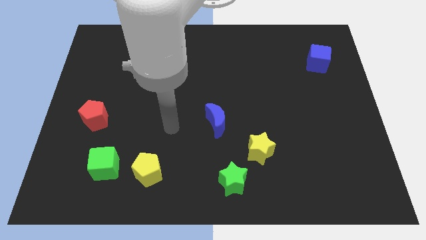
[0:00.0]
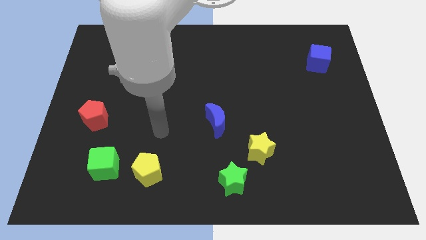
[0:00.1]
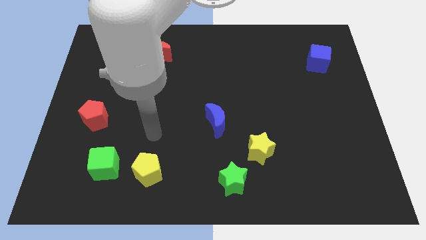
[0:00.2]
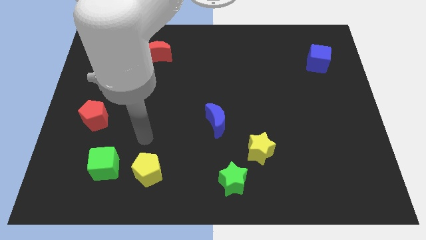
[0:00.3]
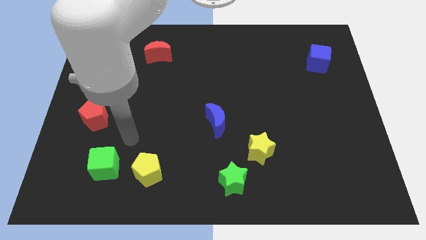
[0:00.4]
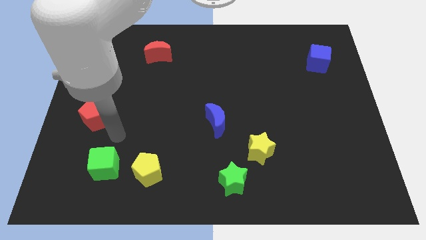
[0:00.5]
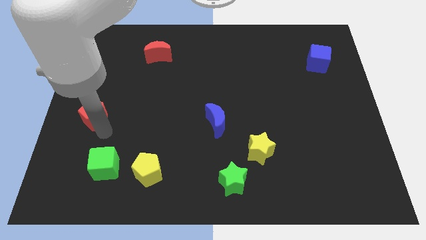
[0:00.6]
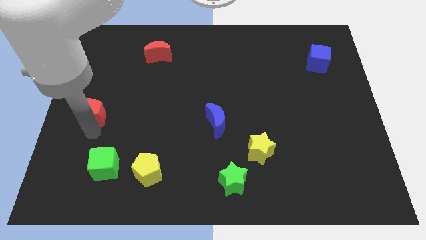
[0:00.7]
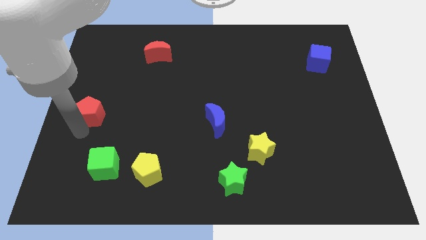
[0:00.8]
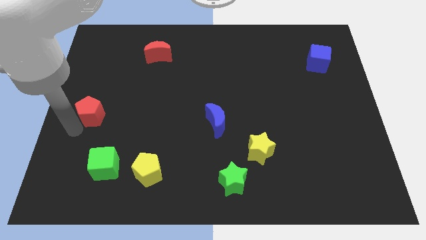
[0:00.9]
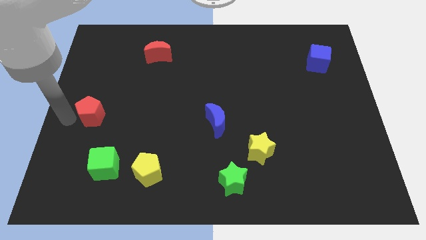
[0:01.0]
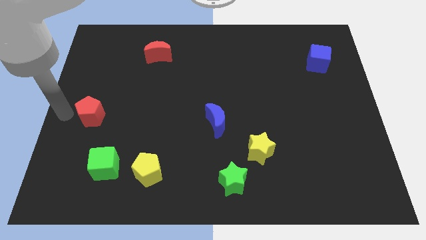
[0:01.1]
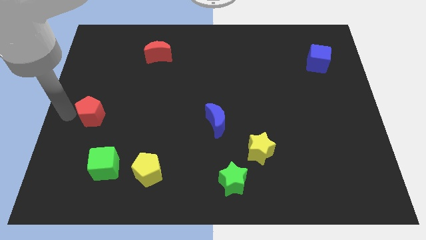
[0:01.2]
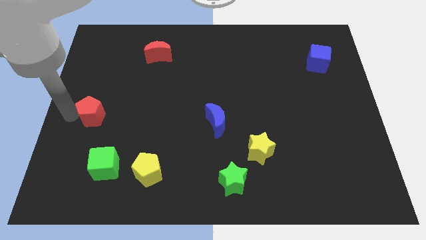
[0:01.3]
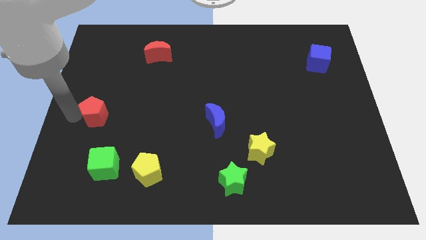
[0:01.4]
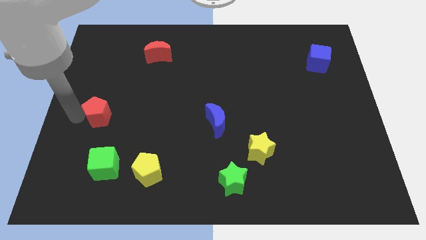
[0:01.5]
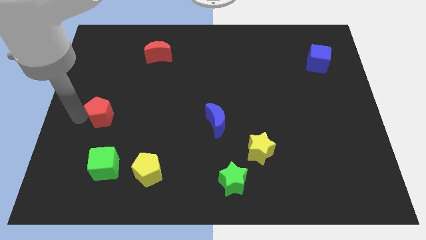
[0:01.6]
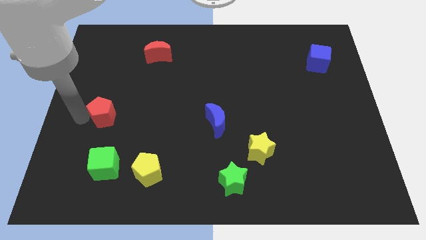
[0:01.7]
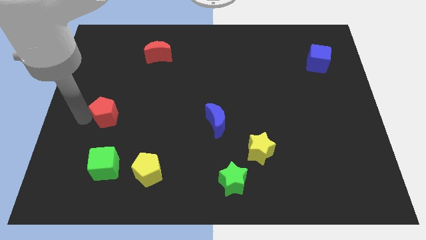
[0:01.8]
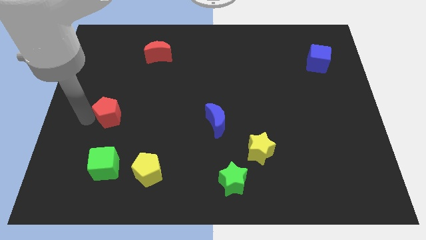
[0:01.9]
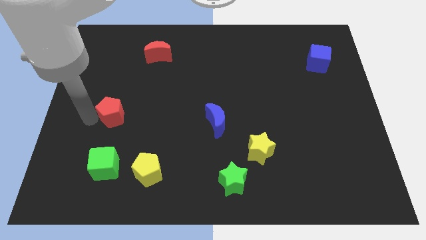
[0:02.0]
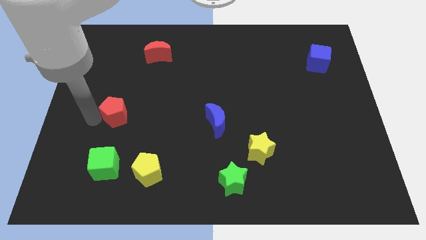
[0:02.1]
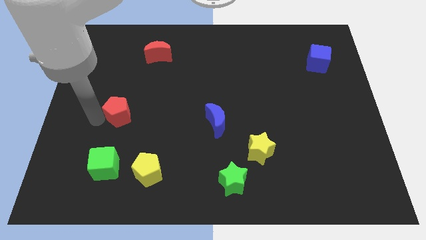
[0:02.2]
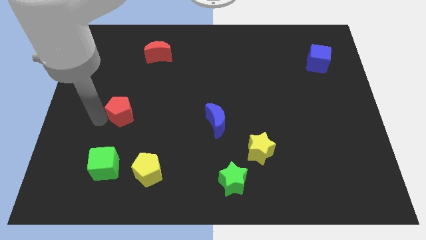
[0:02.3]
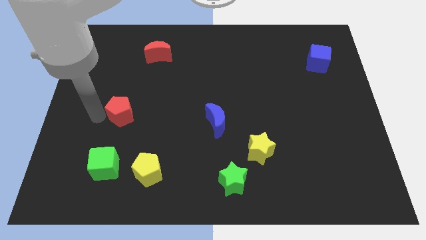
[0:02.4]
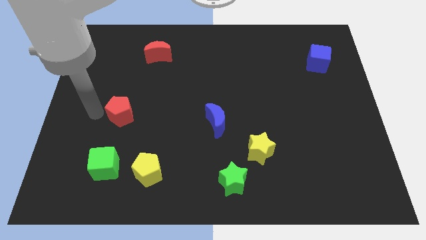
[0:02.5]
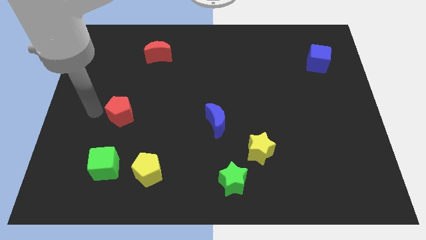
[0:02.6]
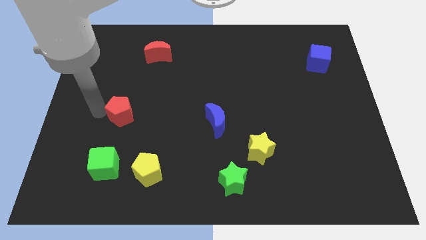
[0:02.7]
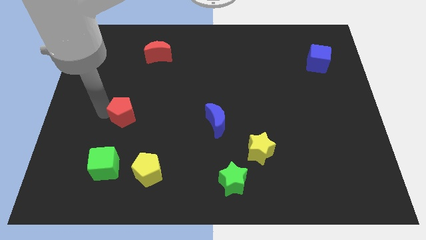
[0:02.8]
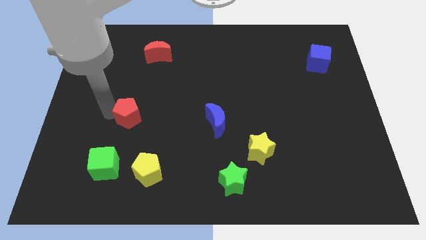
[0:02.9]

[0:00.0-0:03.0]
slide the red pentagon a little bit to the right

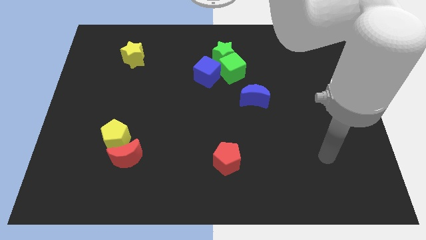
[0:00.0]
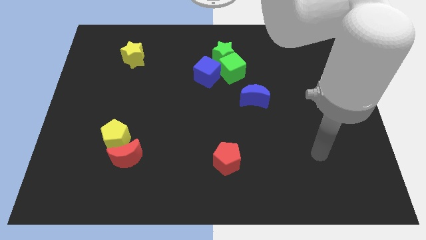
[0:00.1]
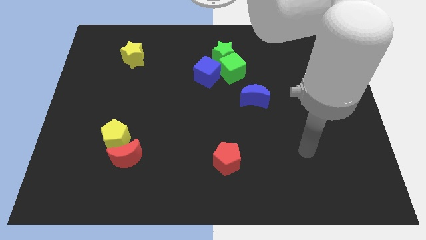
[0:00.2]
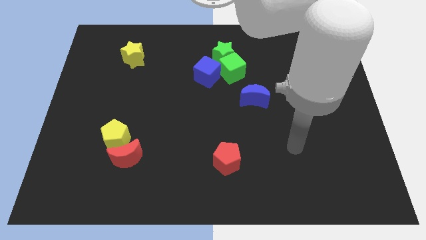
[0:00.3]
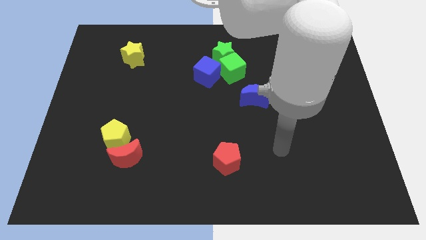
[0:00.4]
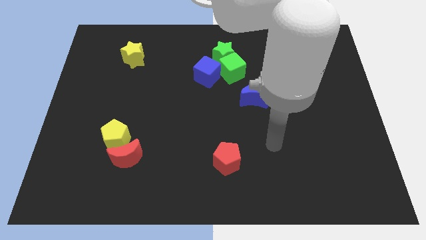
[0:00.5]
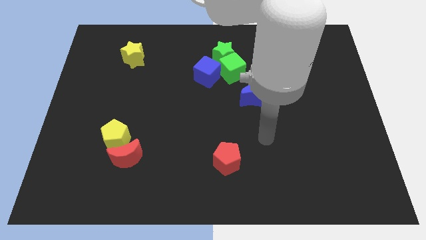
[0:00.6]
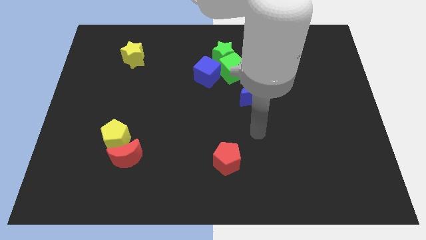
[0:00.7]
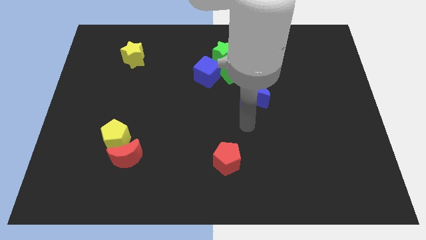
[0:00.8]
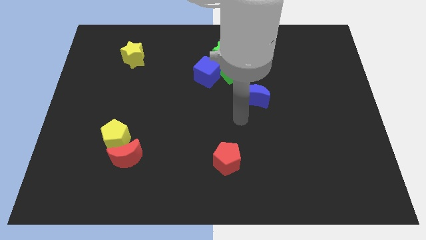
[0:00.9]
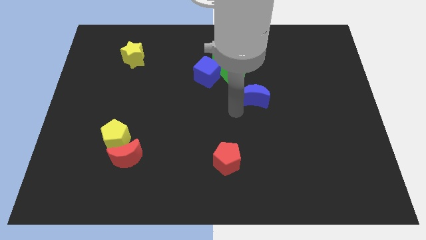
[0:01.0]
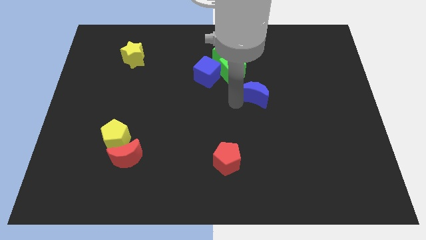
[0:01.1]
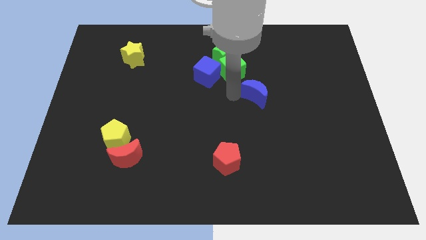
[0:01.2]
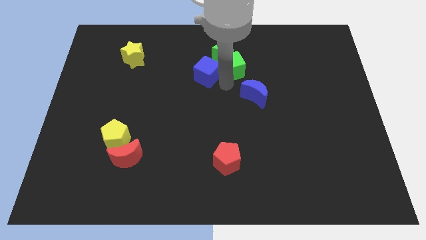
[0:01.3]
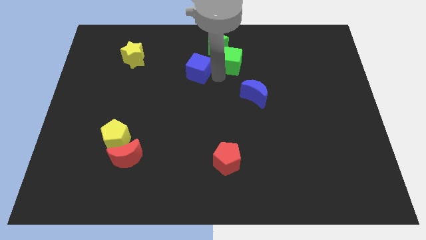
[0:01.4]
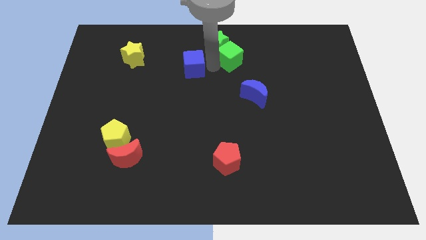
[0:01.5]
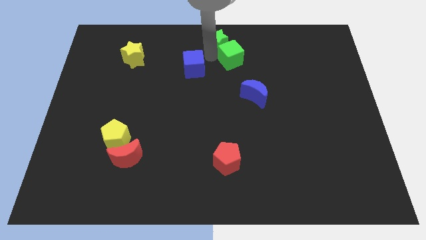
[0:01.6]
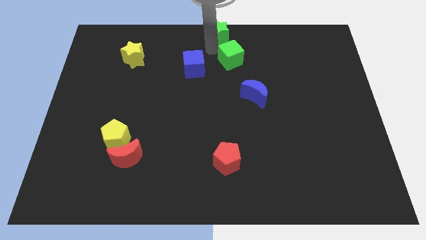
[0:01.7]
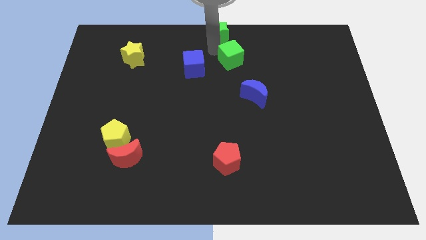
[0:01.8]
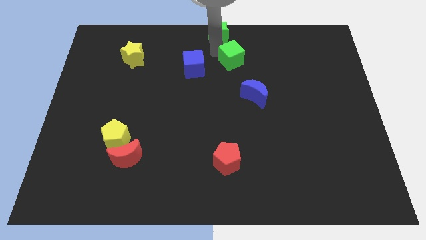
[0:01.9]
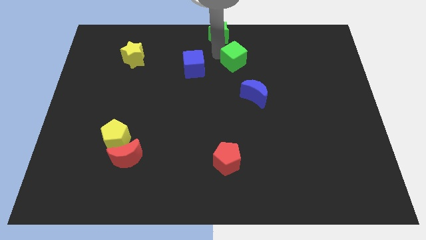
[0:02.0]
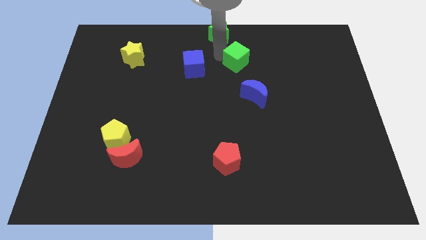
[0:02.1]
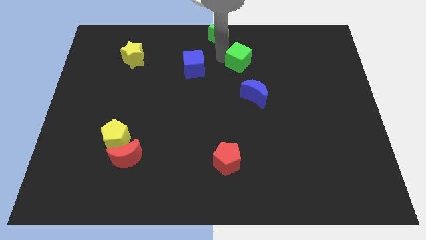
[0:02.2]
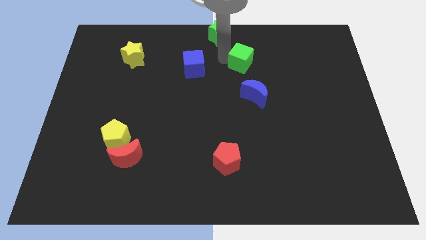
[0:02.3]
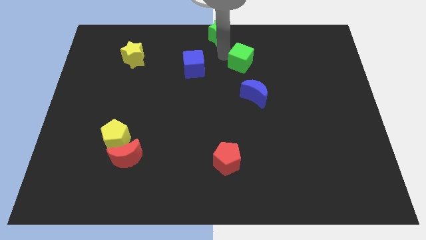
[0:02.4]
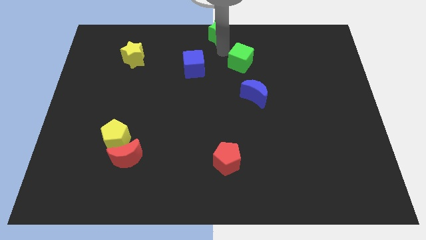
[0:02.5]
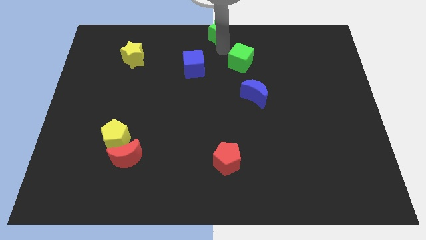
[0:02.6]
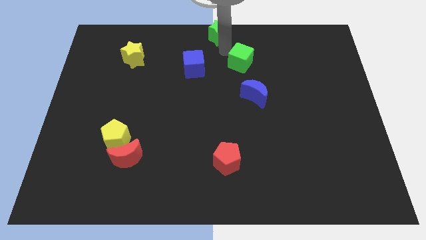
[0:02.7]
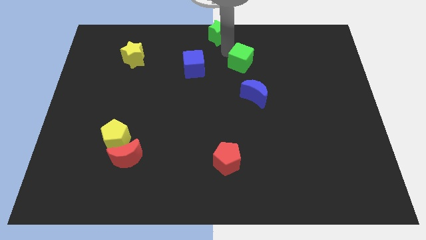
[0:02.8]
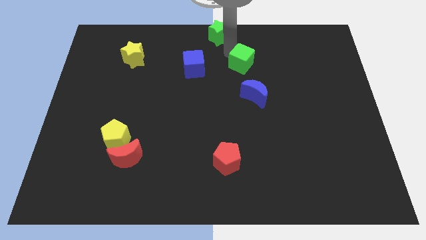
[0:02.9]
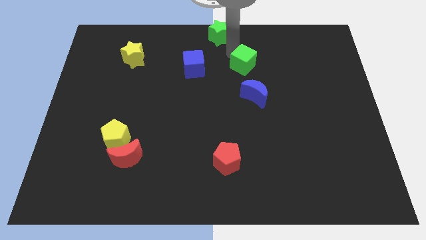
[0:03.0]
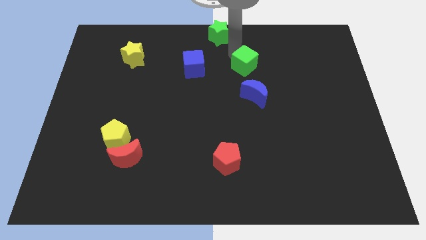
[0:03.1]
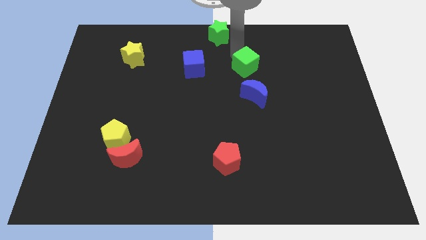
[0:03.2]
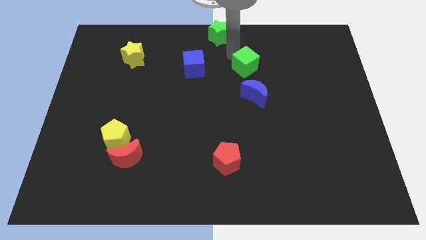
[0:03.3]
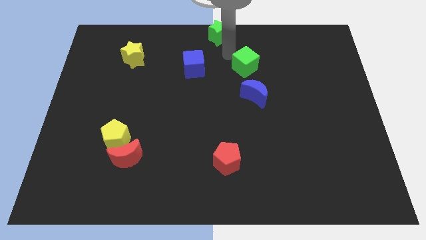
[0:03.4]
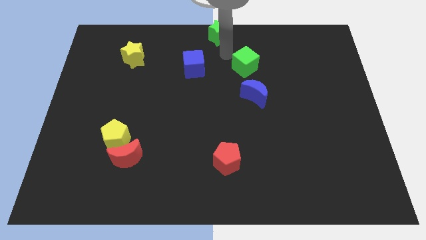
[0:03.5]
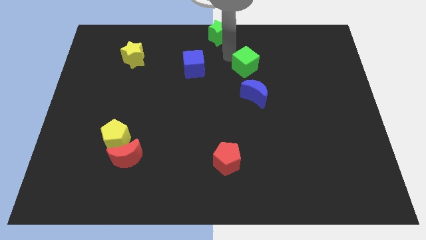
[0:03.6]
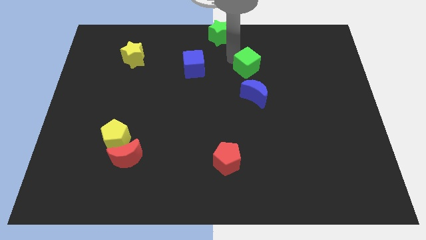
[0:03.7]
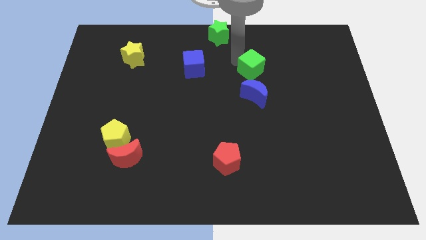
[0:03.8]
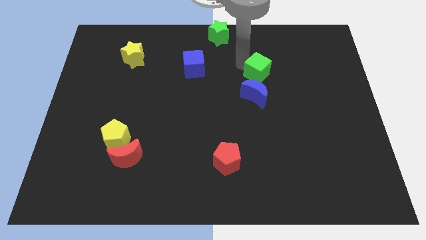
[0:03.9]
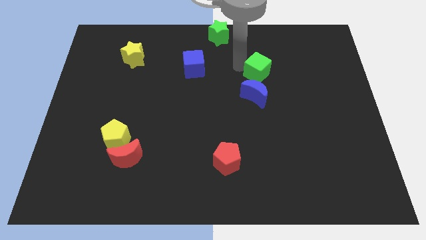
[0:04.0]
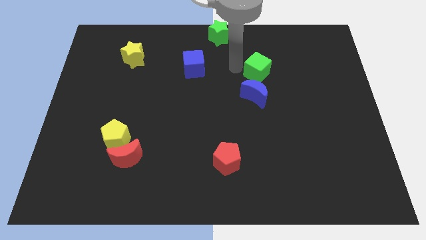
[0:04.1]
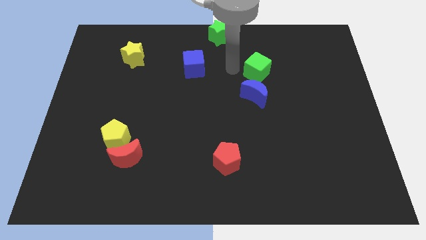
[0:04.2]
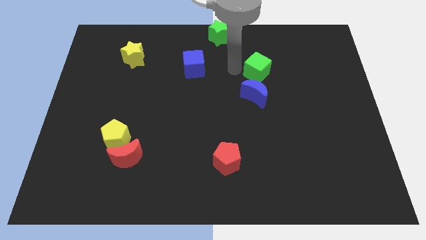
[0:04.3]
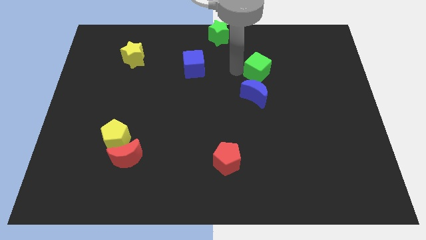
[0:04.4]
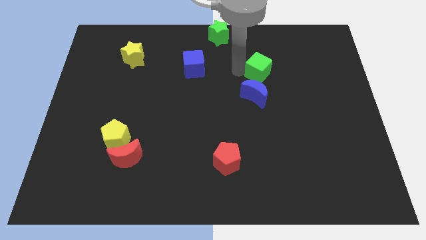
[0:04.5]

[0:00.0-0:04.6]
move the green cube right a little bit

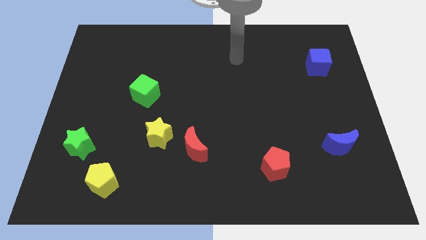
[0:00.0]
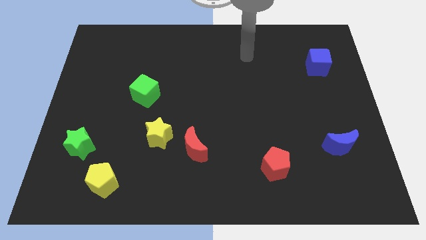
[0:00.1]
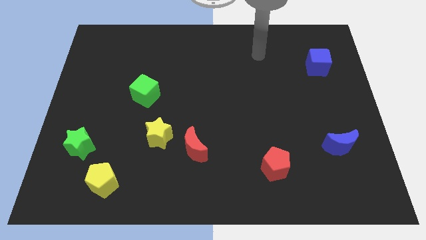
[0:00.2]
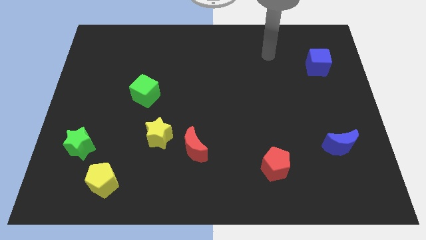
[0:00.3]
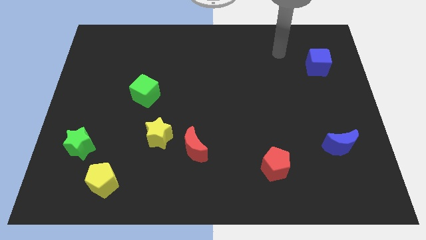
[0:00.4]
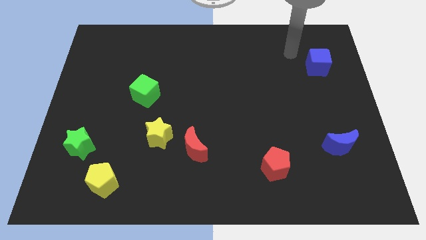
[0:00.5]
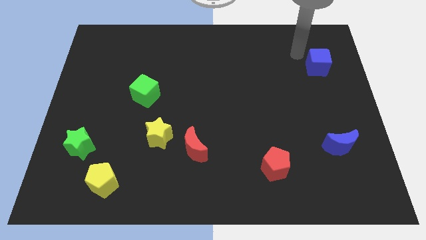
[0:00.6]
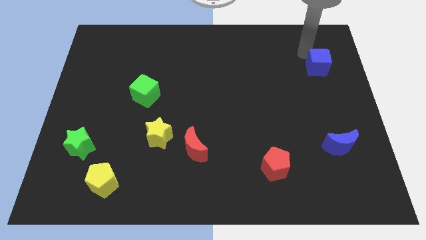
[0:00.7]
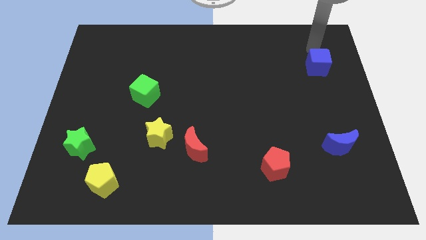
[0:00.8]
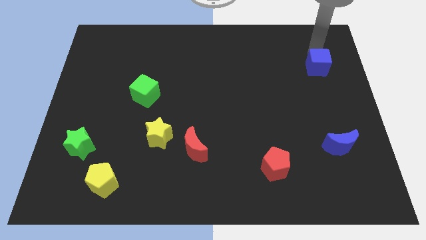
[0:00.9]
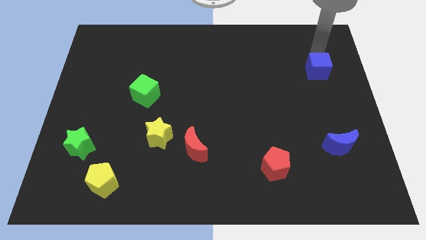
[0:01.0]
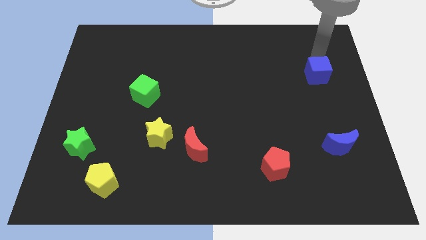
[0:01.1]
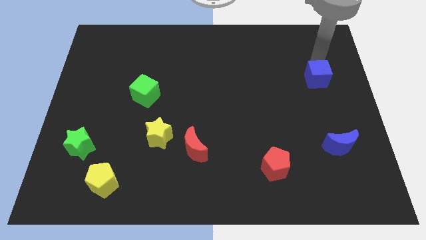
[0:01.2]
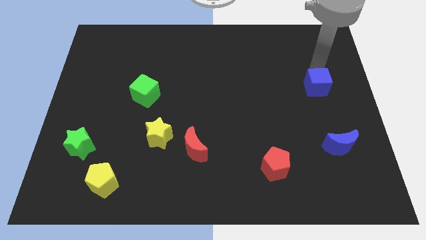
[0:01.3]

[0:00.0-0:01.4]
slide the blue cube a little bit downwards
